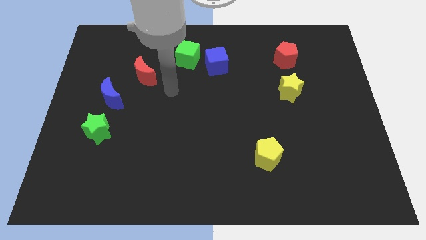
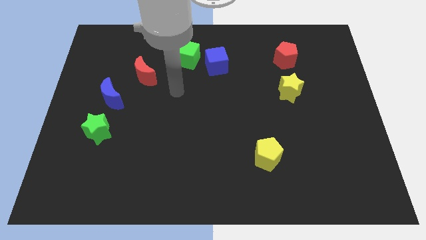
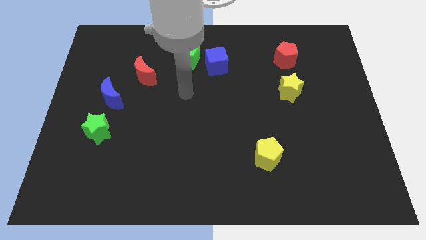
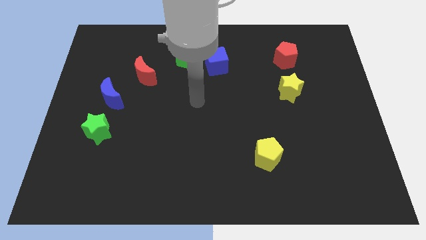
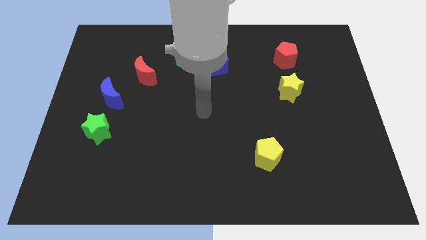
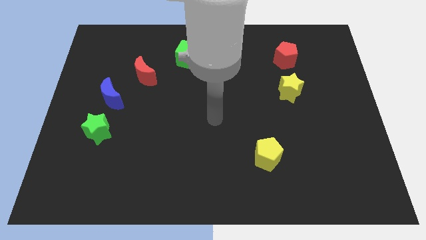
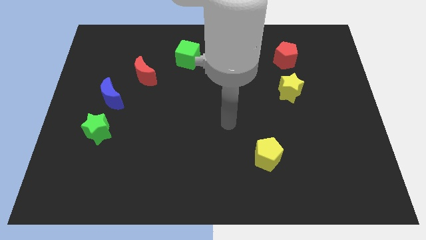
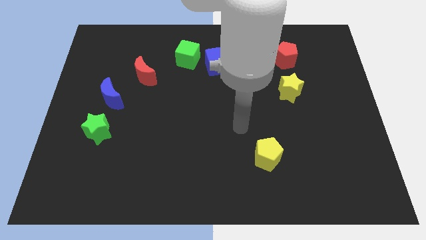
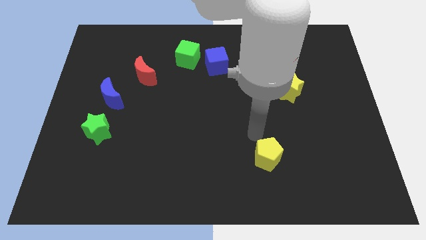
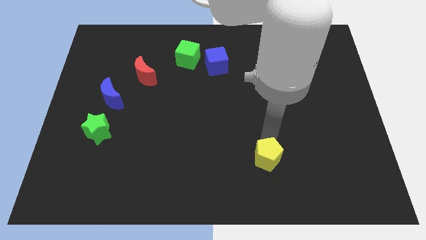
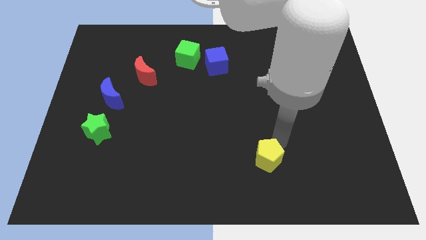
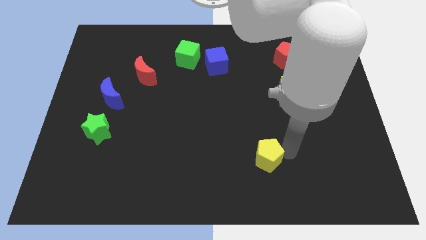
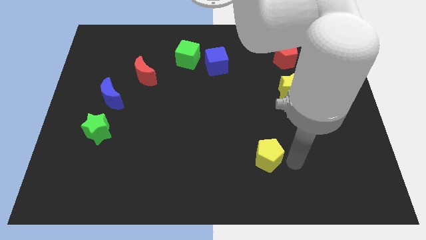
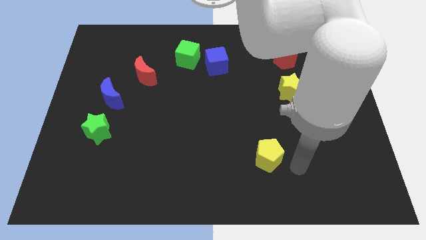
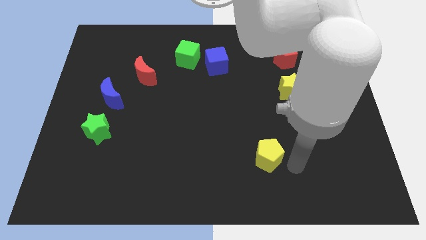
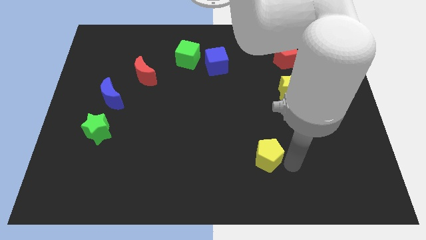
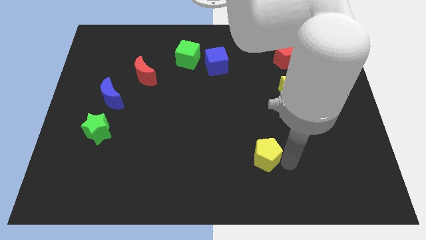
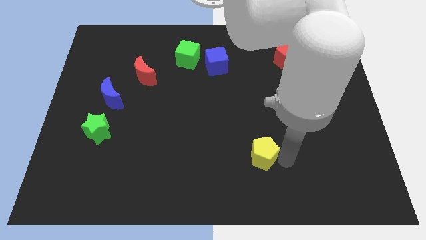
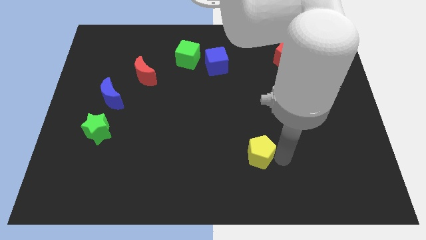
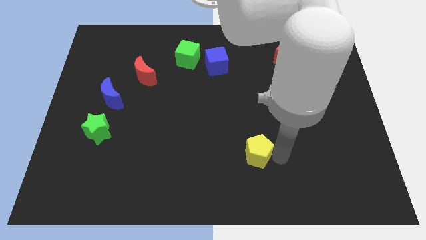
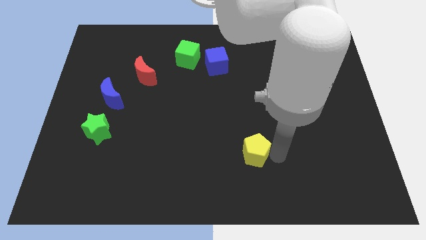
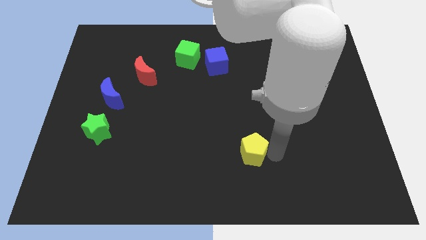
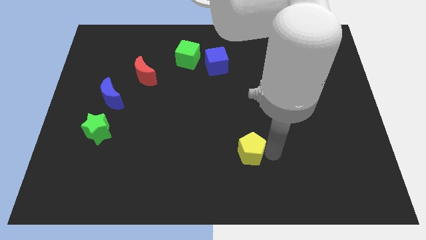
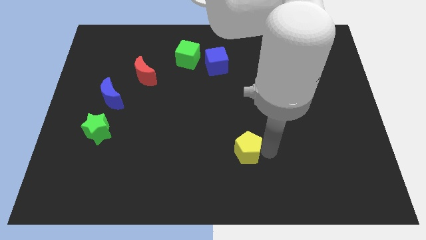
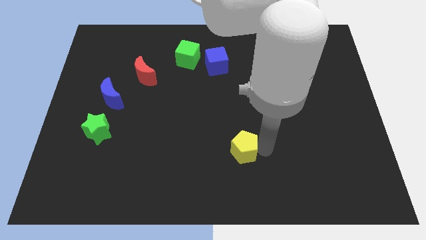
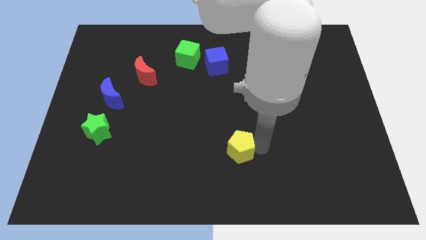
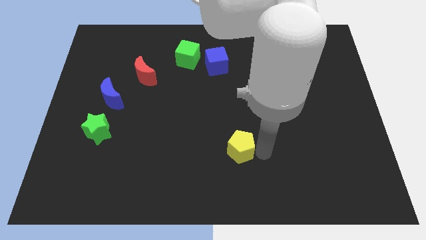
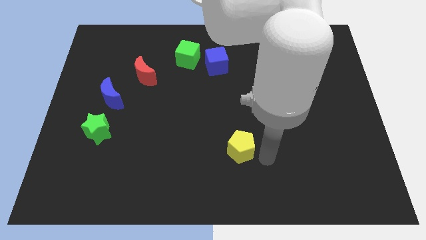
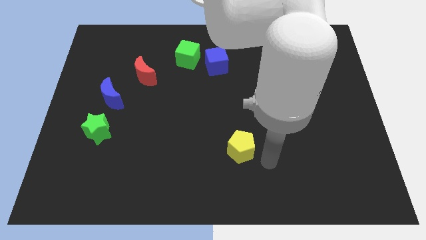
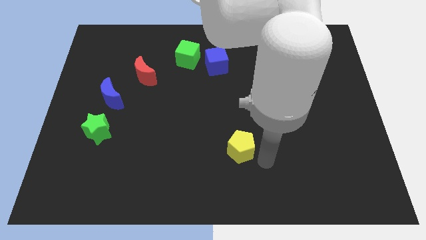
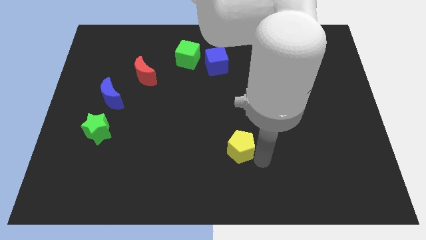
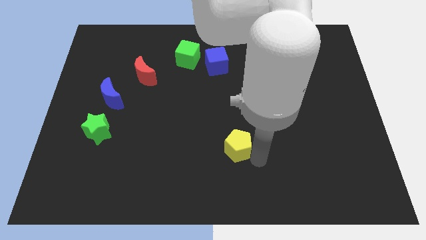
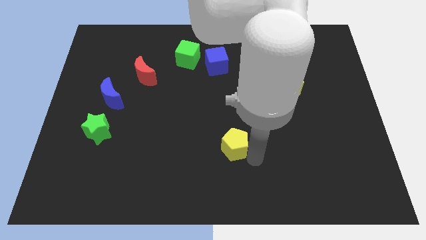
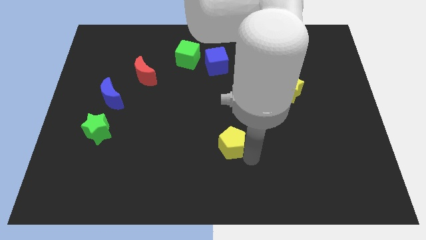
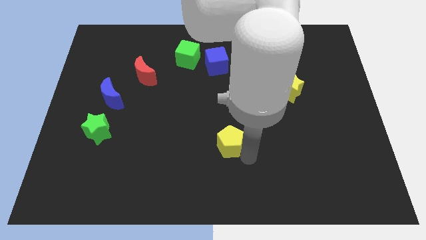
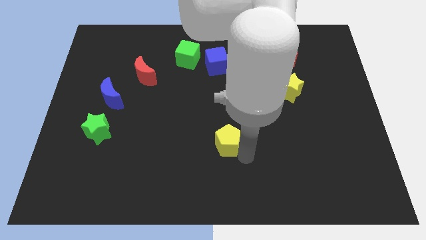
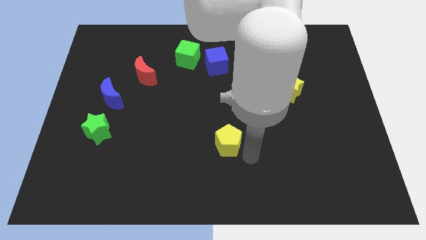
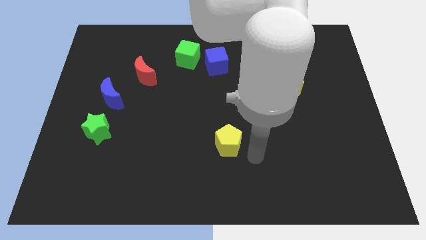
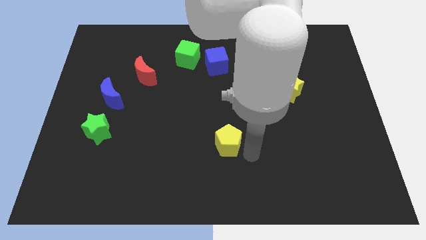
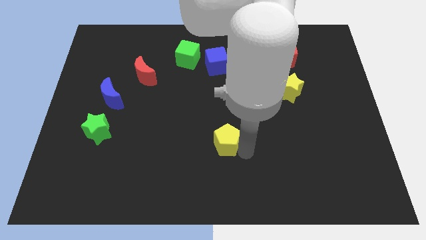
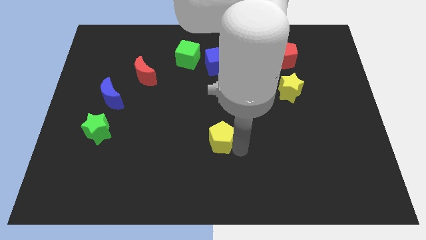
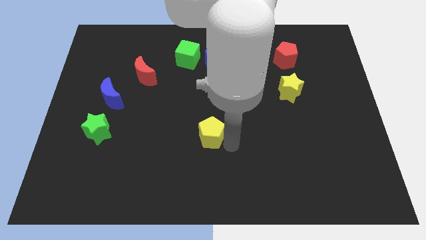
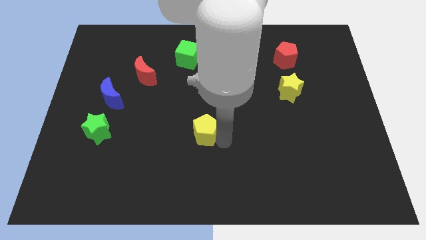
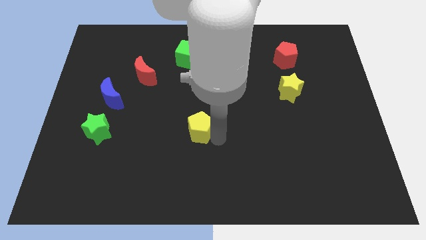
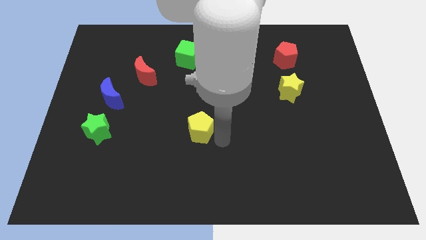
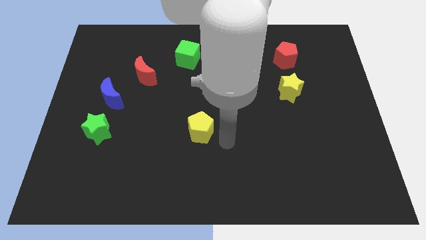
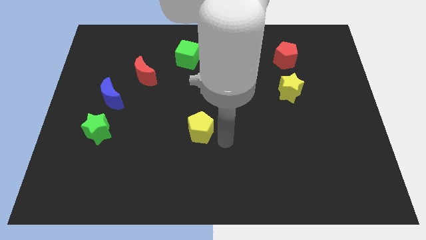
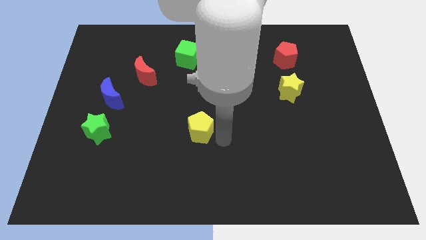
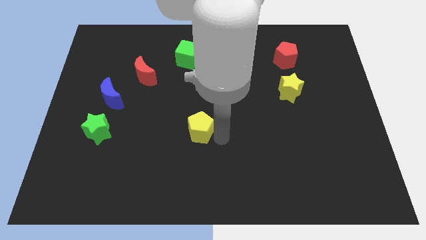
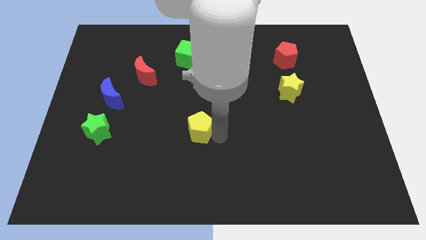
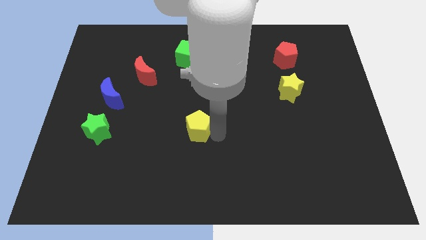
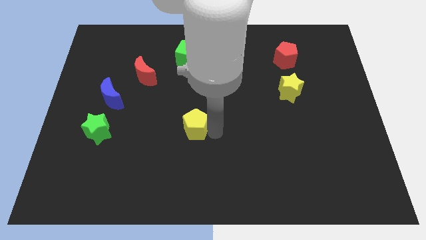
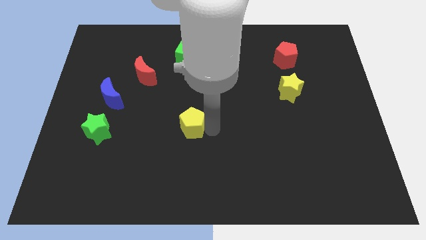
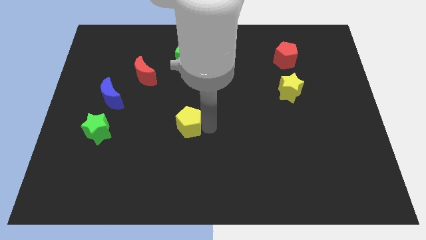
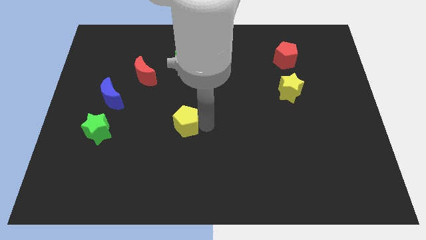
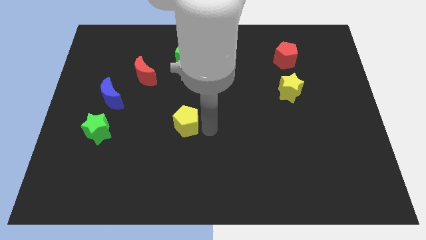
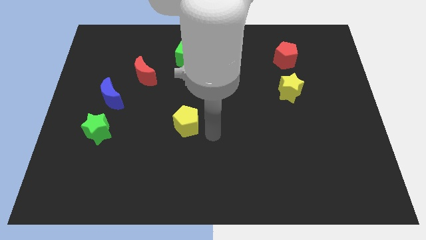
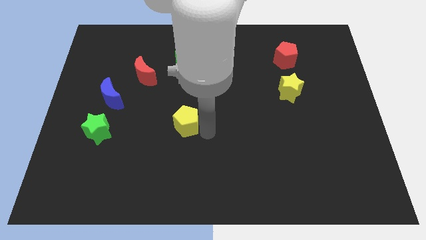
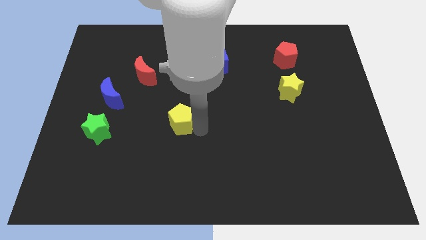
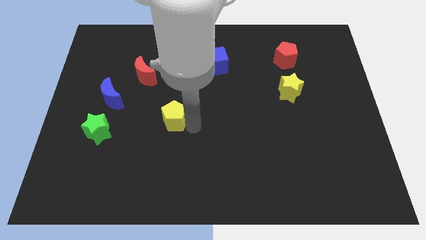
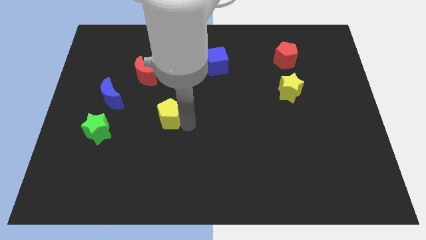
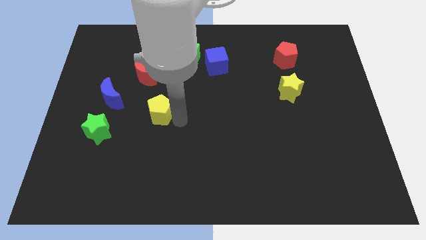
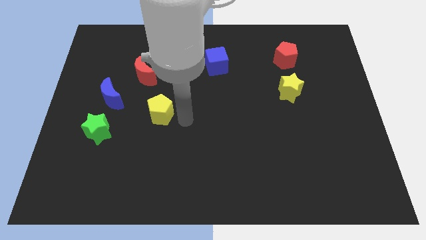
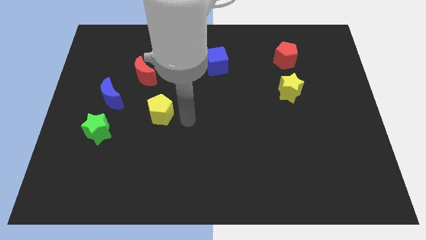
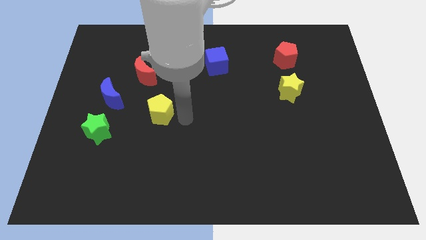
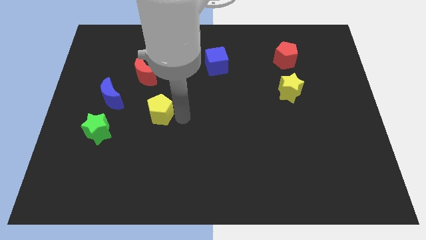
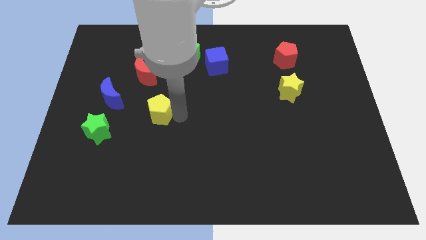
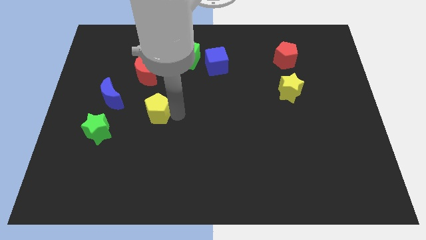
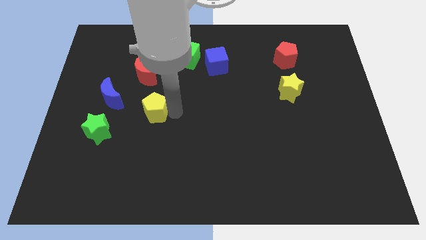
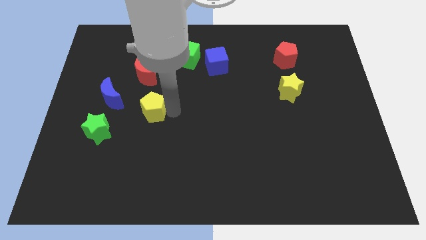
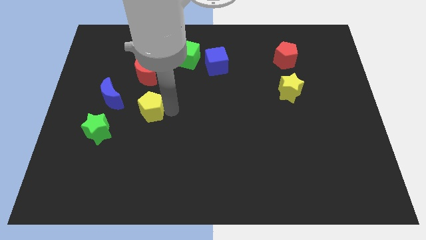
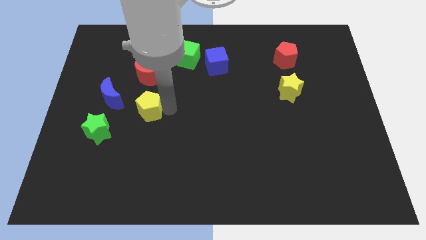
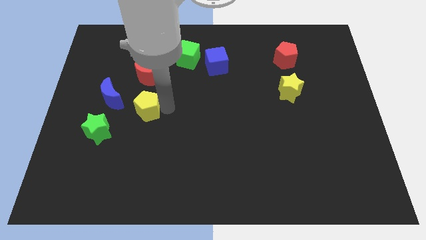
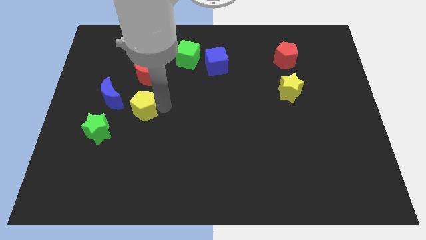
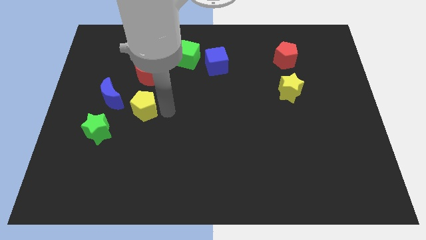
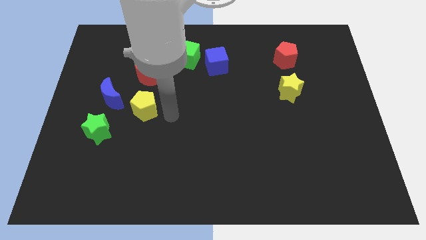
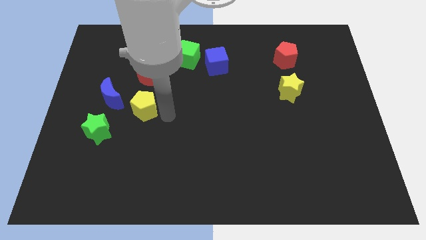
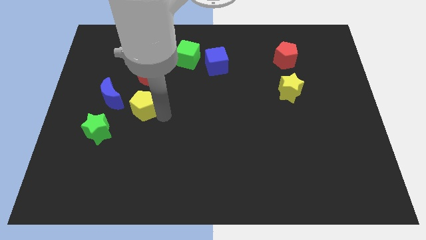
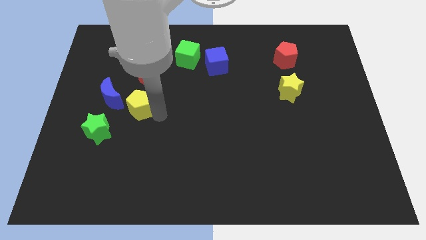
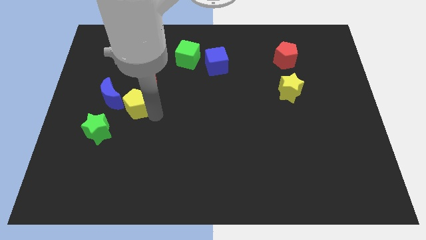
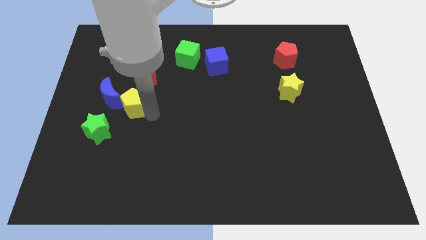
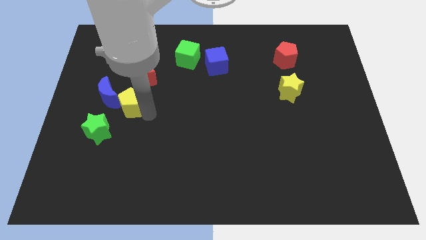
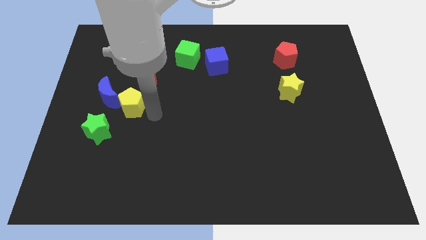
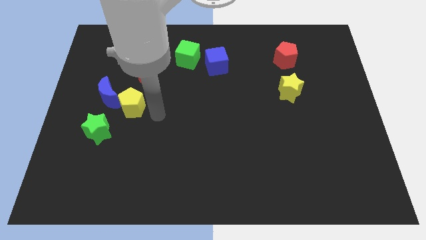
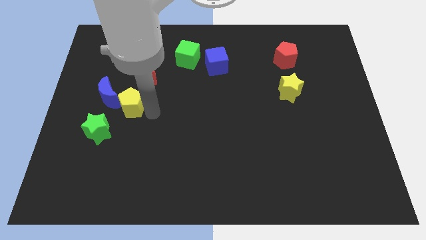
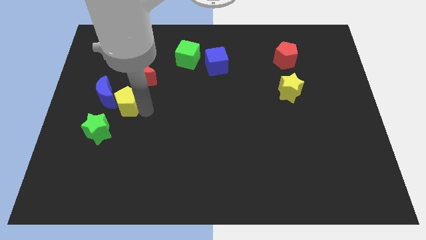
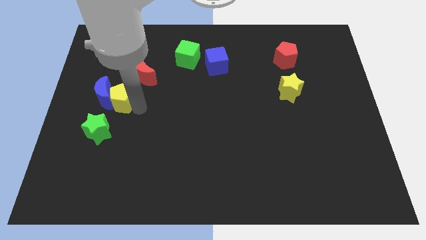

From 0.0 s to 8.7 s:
move the yellow pentagon close to the blue moon
